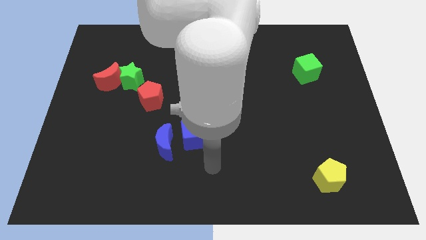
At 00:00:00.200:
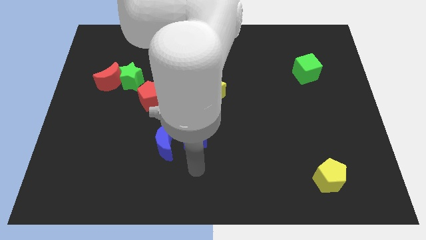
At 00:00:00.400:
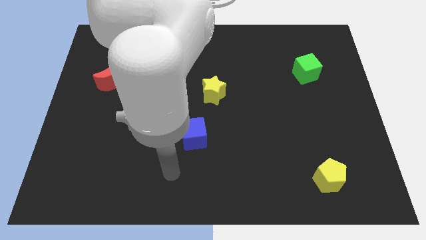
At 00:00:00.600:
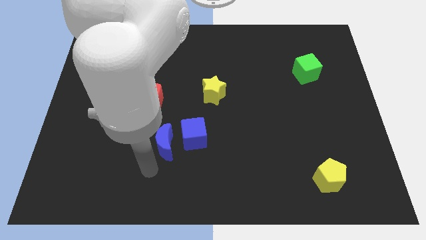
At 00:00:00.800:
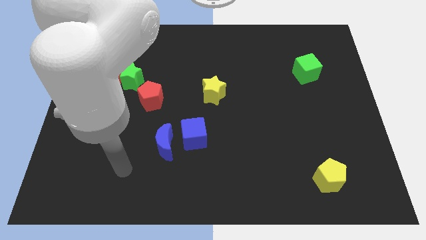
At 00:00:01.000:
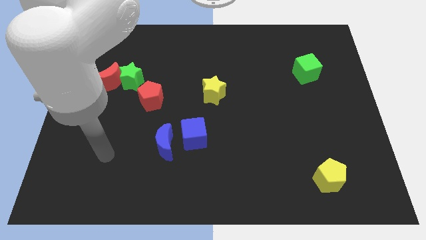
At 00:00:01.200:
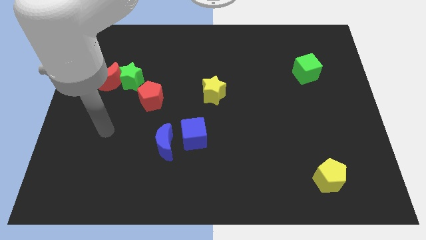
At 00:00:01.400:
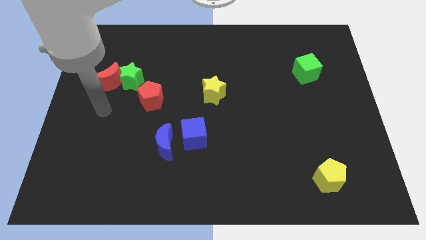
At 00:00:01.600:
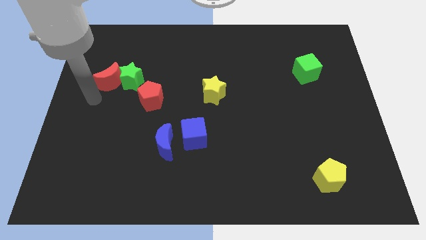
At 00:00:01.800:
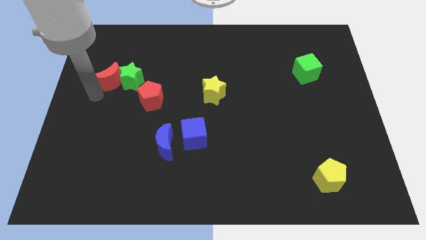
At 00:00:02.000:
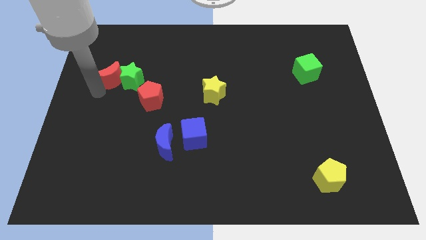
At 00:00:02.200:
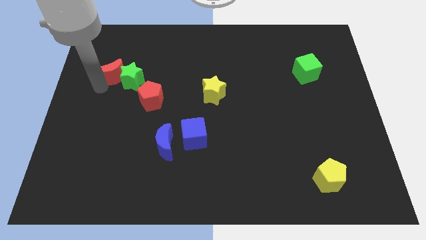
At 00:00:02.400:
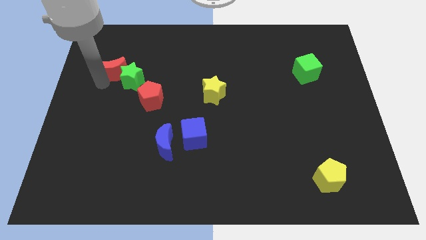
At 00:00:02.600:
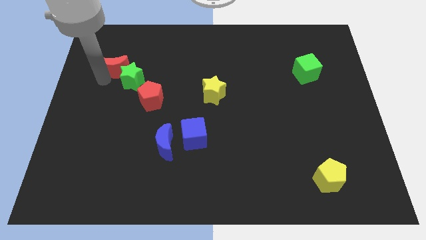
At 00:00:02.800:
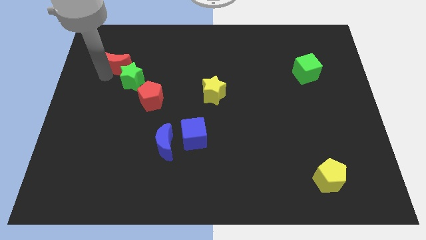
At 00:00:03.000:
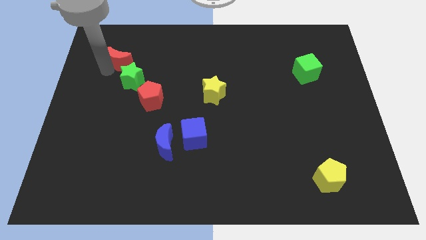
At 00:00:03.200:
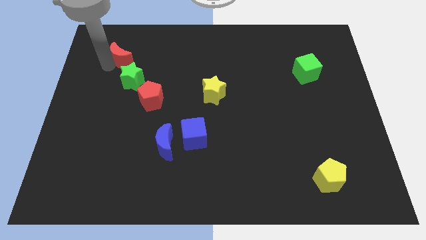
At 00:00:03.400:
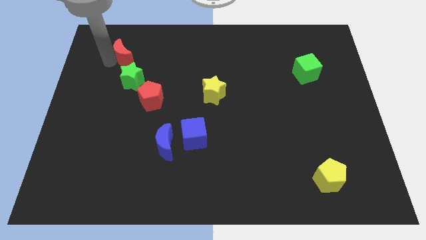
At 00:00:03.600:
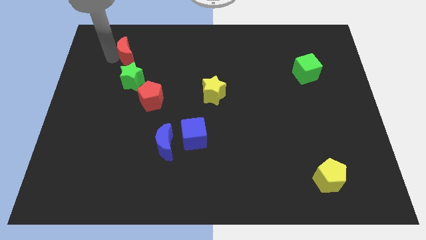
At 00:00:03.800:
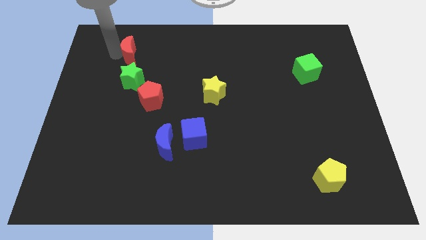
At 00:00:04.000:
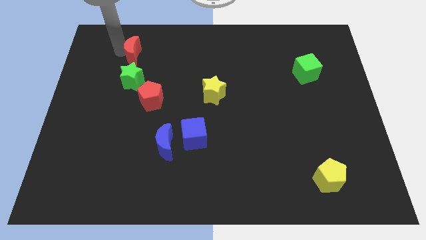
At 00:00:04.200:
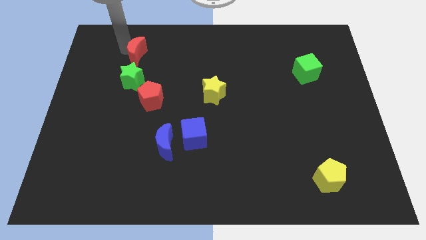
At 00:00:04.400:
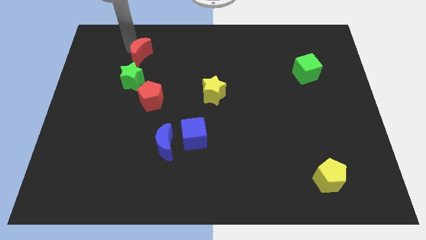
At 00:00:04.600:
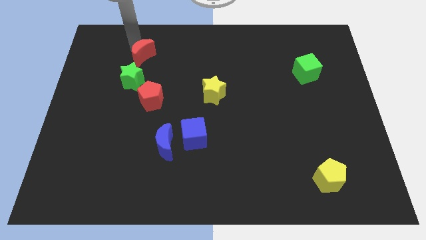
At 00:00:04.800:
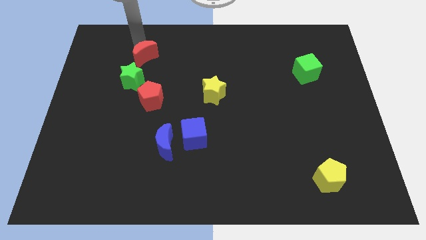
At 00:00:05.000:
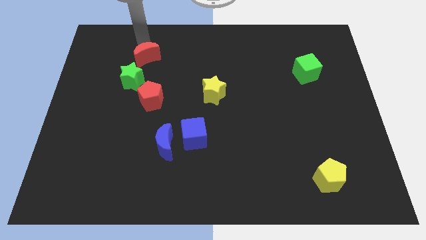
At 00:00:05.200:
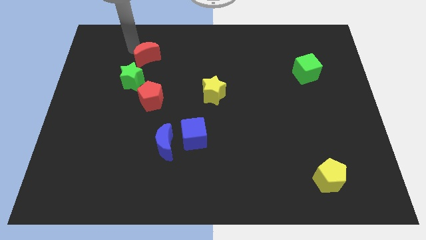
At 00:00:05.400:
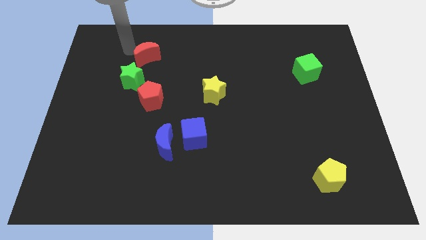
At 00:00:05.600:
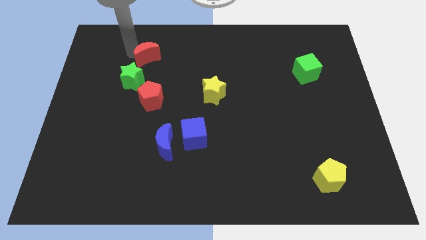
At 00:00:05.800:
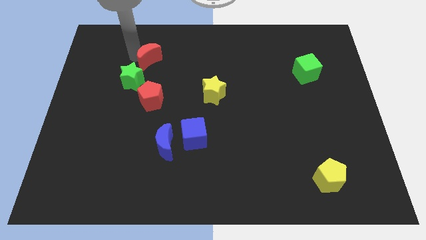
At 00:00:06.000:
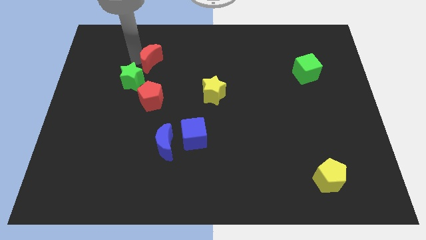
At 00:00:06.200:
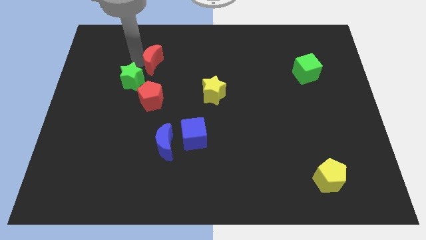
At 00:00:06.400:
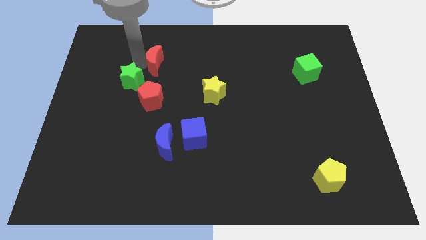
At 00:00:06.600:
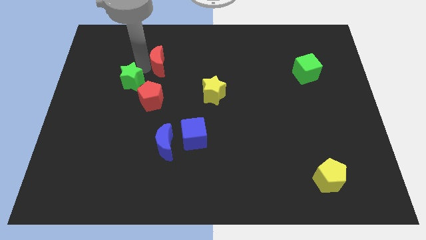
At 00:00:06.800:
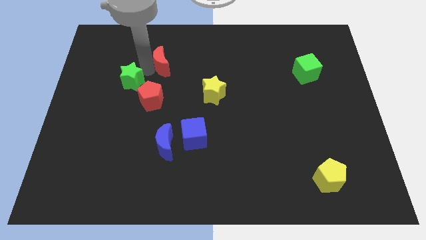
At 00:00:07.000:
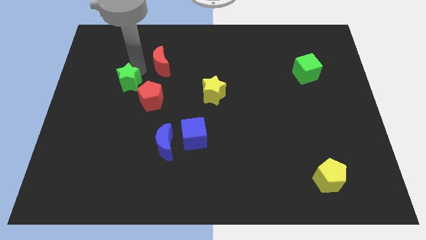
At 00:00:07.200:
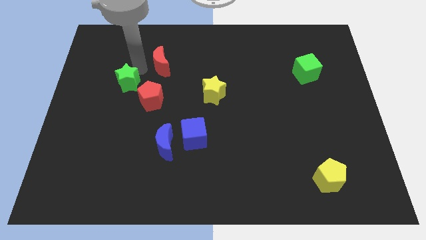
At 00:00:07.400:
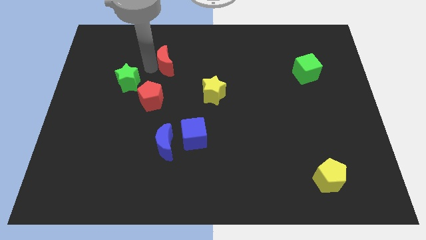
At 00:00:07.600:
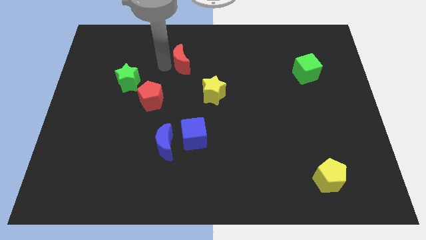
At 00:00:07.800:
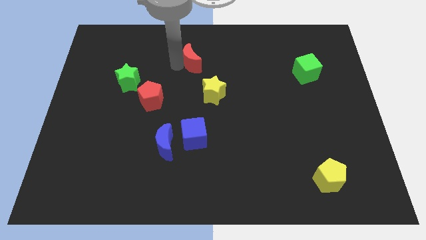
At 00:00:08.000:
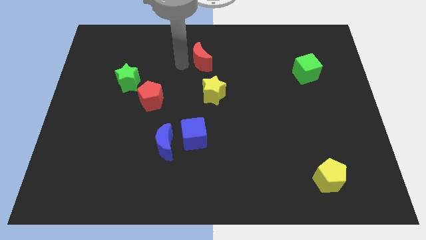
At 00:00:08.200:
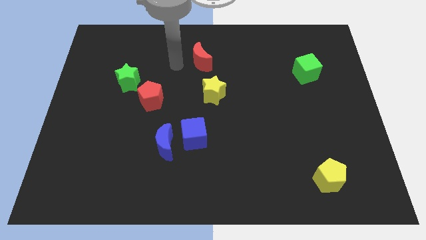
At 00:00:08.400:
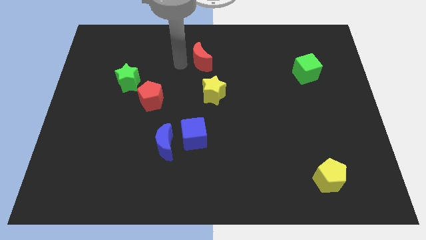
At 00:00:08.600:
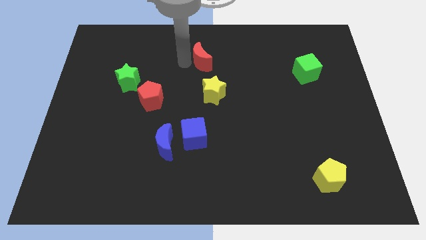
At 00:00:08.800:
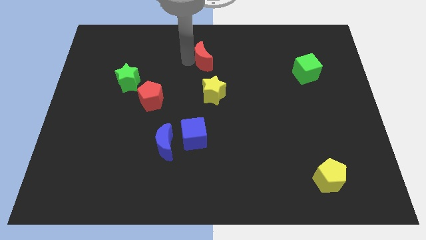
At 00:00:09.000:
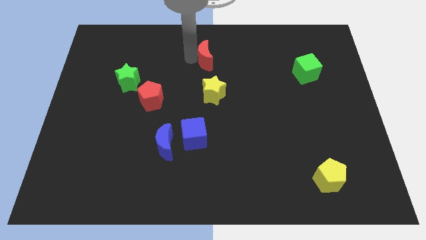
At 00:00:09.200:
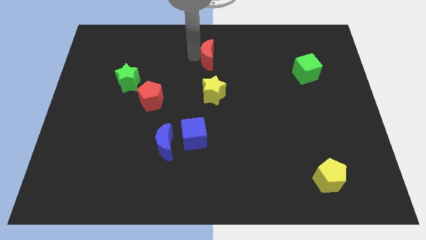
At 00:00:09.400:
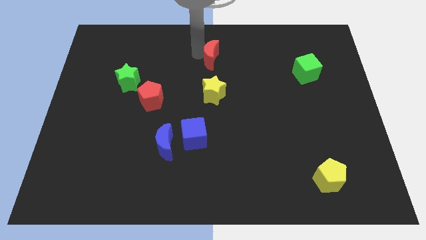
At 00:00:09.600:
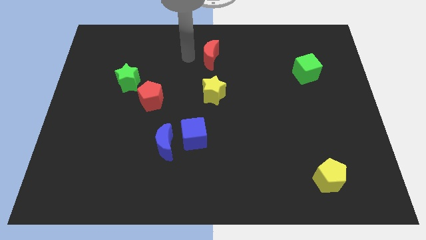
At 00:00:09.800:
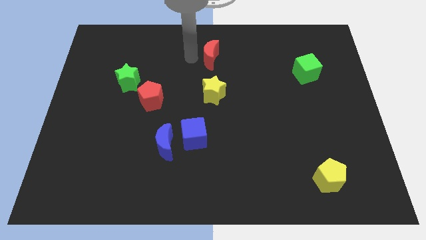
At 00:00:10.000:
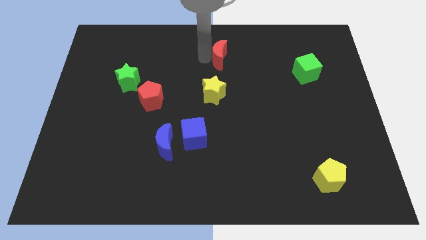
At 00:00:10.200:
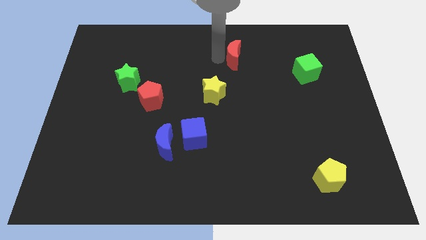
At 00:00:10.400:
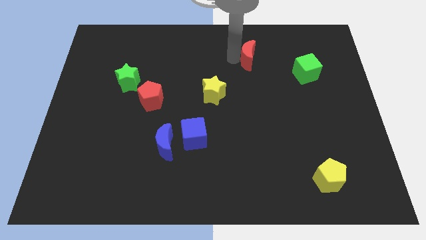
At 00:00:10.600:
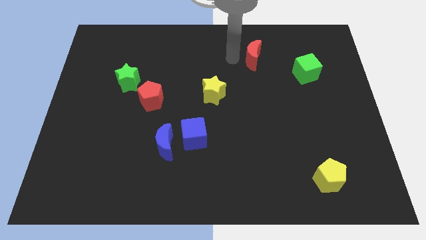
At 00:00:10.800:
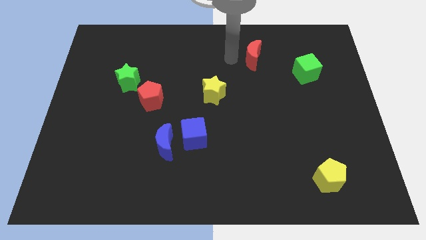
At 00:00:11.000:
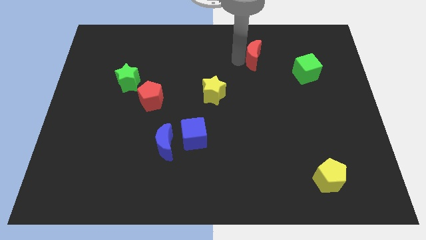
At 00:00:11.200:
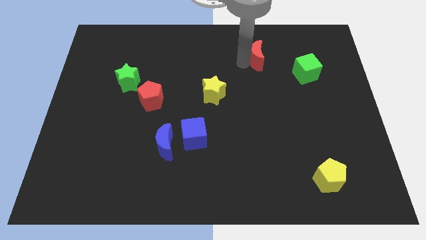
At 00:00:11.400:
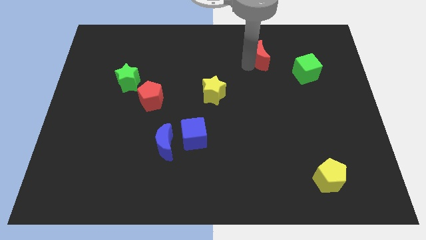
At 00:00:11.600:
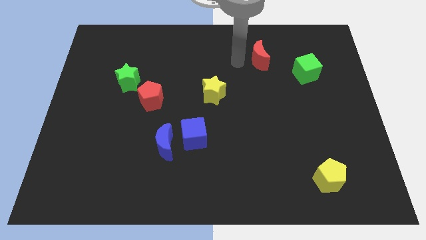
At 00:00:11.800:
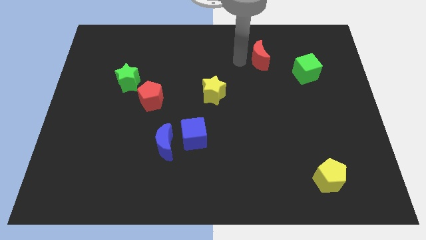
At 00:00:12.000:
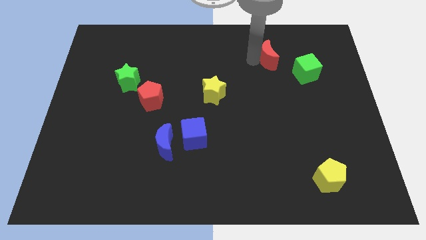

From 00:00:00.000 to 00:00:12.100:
push the red moon diagonally up and to the left of the green cube

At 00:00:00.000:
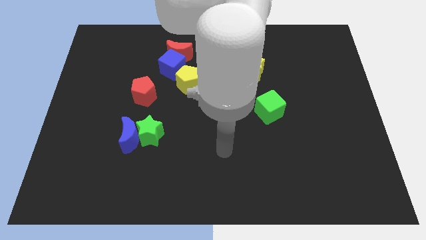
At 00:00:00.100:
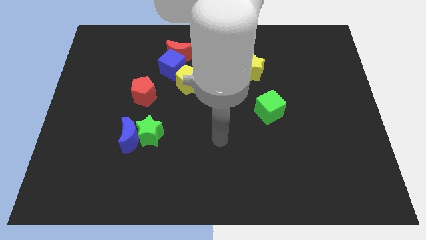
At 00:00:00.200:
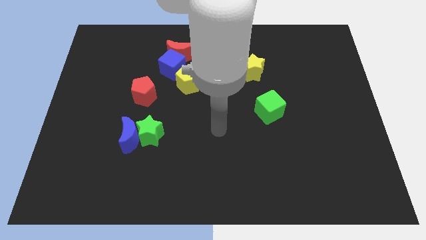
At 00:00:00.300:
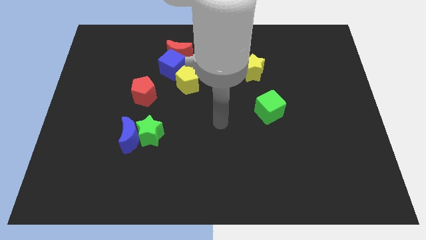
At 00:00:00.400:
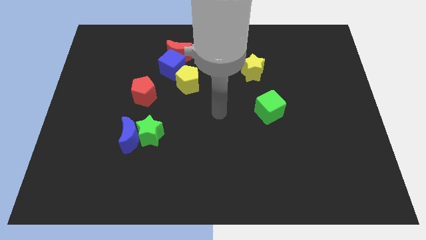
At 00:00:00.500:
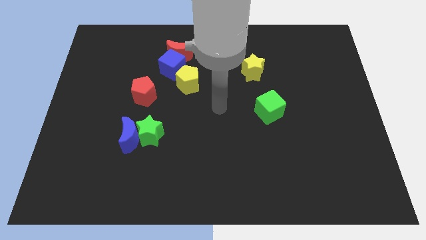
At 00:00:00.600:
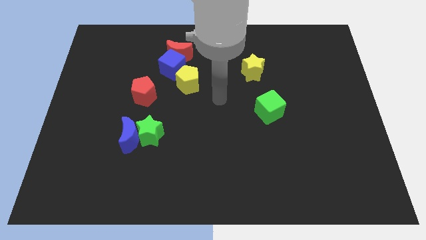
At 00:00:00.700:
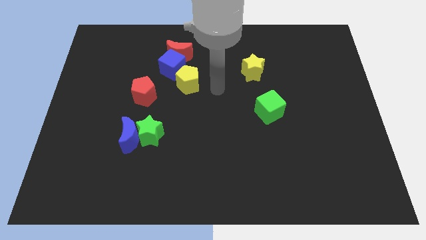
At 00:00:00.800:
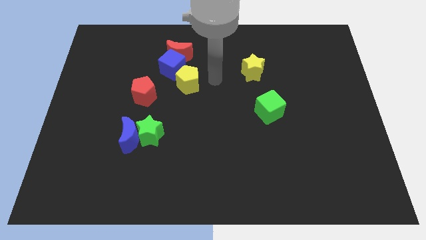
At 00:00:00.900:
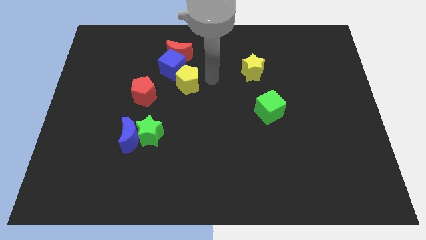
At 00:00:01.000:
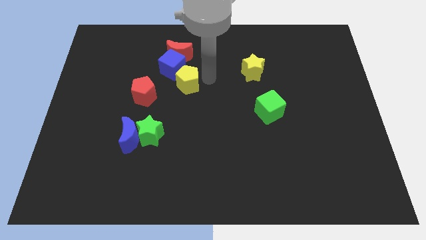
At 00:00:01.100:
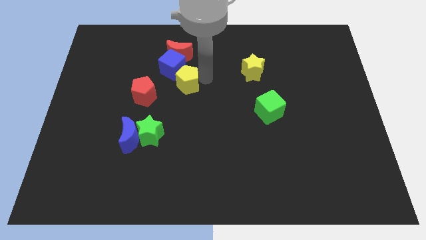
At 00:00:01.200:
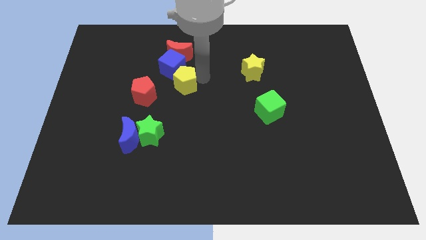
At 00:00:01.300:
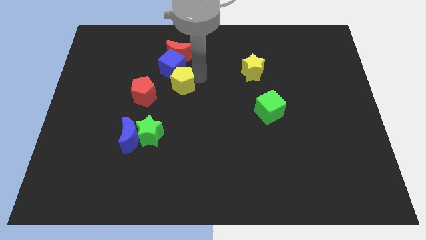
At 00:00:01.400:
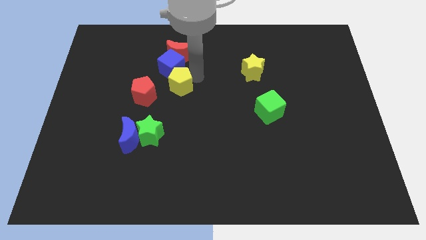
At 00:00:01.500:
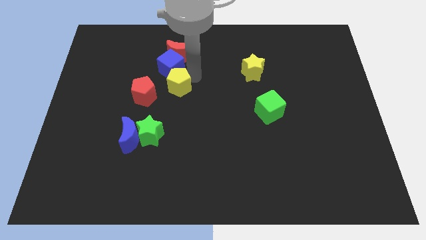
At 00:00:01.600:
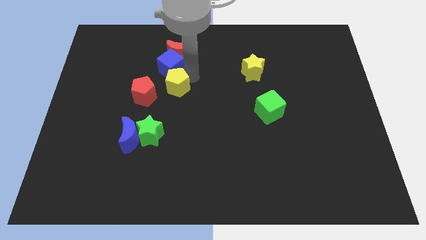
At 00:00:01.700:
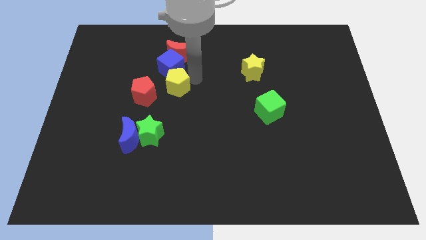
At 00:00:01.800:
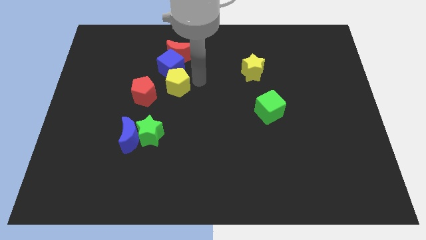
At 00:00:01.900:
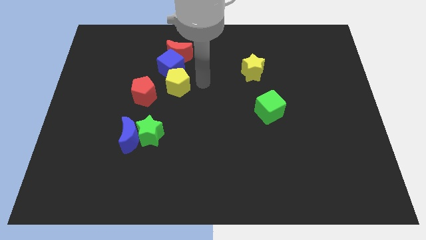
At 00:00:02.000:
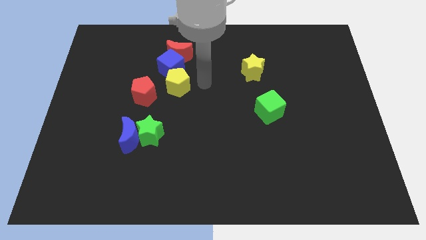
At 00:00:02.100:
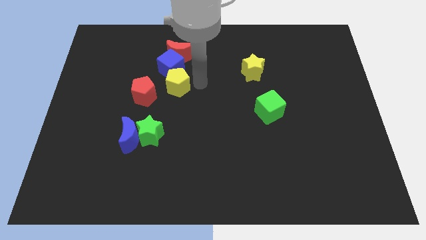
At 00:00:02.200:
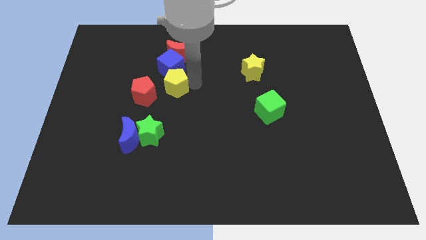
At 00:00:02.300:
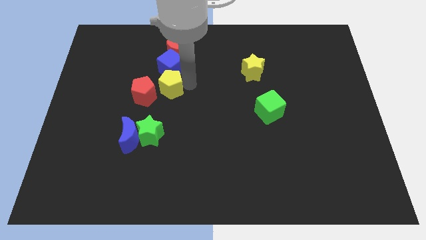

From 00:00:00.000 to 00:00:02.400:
put the yellow pentagon to the top of the green star
